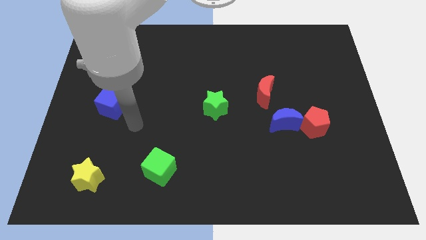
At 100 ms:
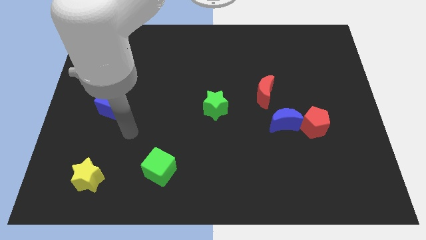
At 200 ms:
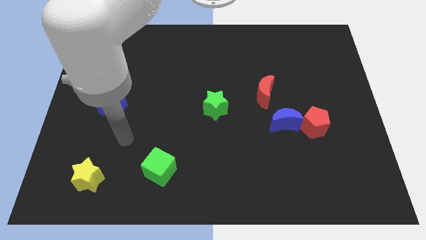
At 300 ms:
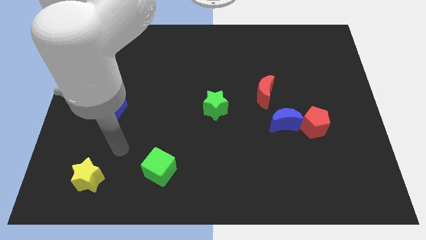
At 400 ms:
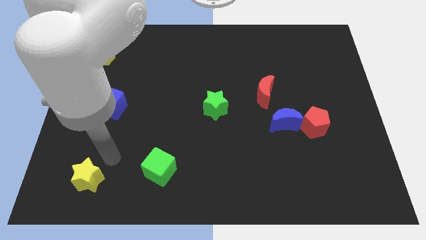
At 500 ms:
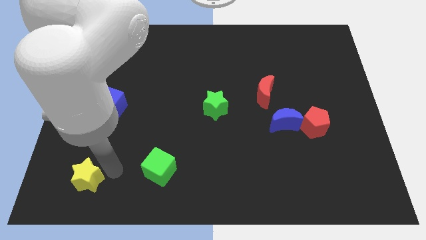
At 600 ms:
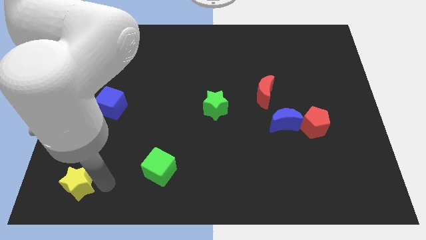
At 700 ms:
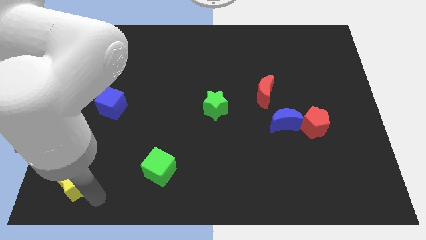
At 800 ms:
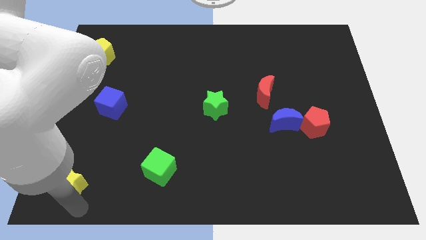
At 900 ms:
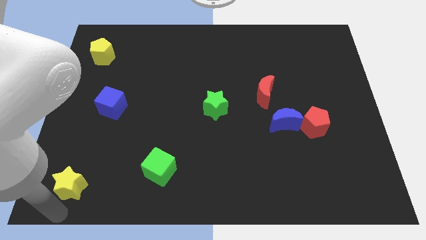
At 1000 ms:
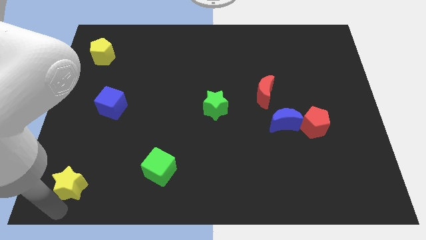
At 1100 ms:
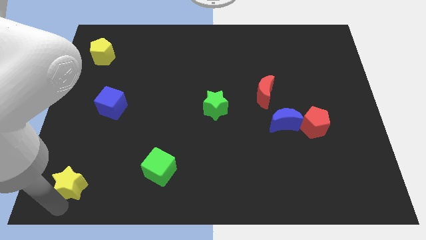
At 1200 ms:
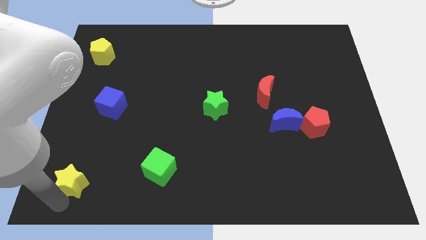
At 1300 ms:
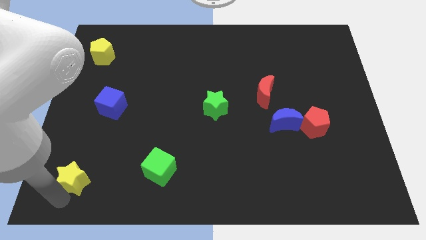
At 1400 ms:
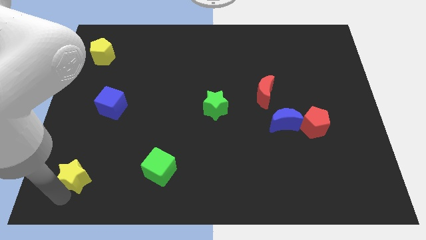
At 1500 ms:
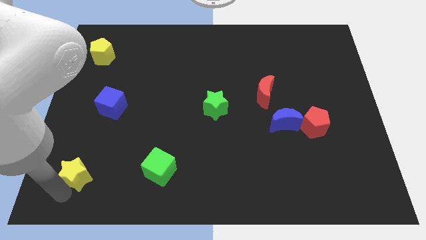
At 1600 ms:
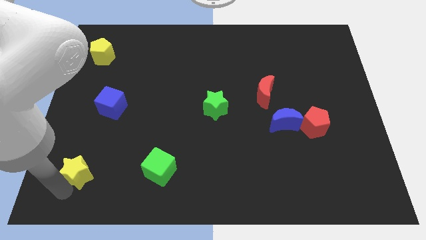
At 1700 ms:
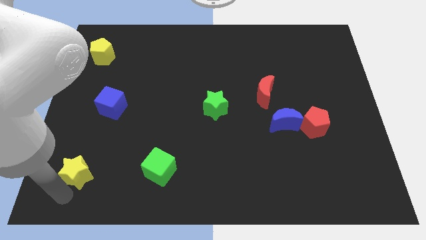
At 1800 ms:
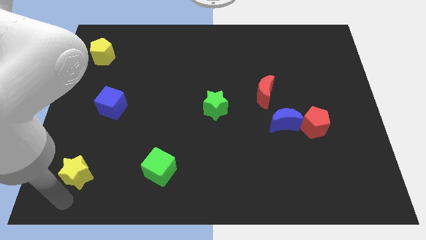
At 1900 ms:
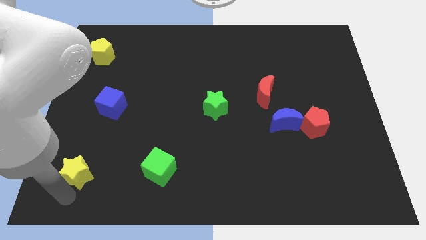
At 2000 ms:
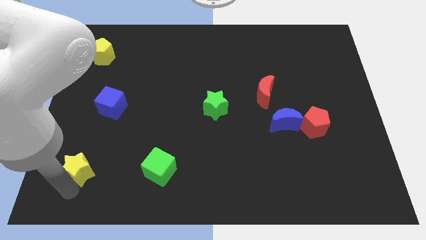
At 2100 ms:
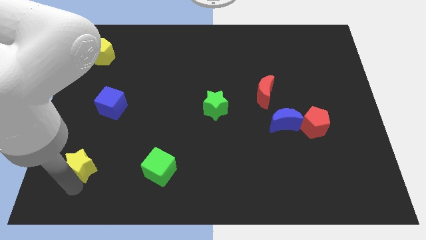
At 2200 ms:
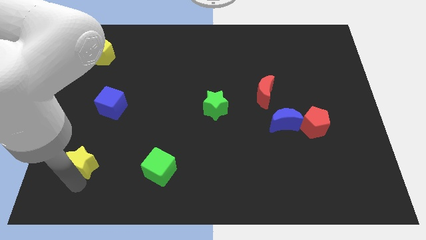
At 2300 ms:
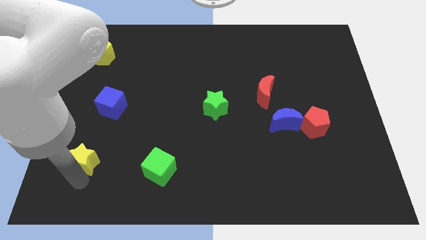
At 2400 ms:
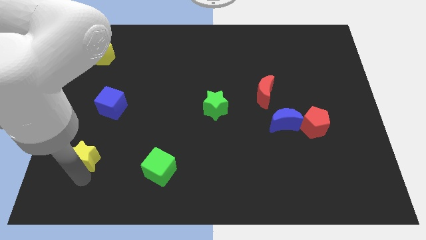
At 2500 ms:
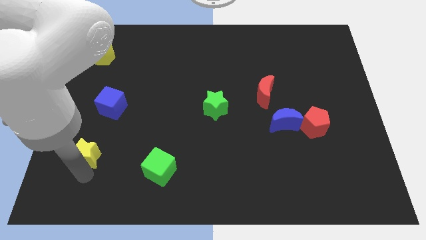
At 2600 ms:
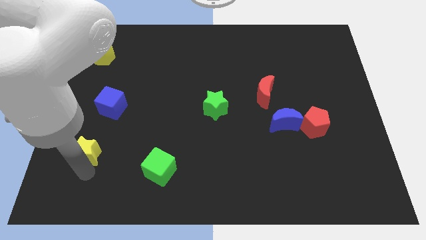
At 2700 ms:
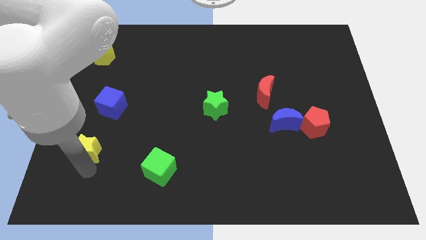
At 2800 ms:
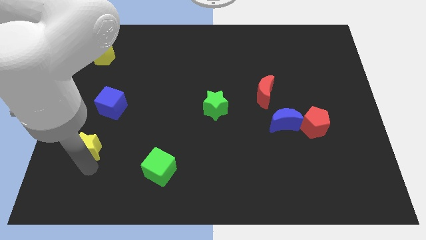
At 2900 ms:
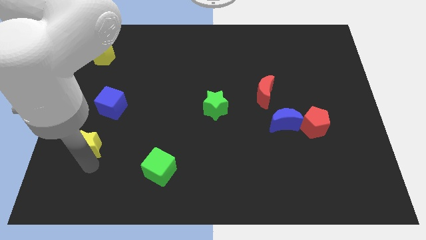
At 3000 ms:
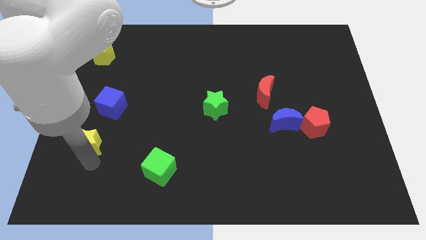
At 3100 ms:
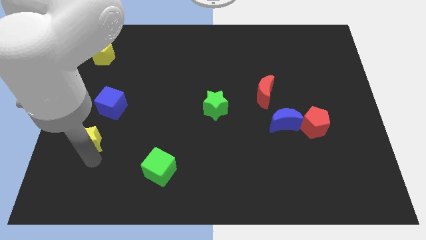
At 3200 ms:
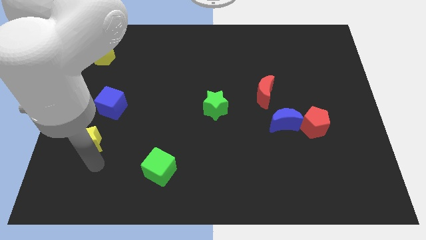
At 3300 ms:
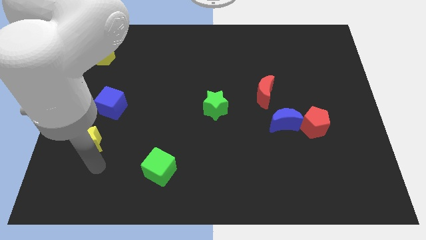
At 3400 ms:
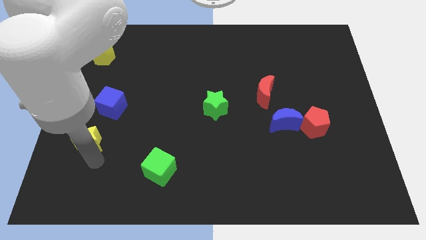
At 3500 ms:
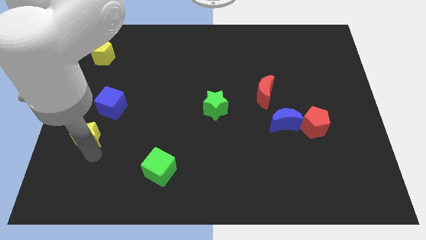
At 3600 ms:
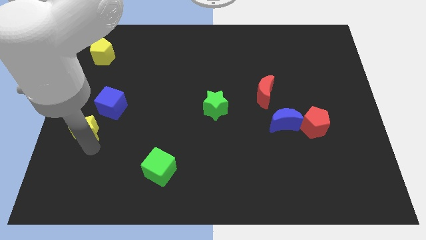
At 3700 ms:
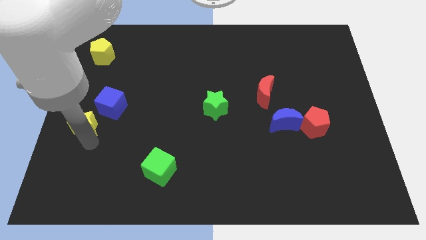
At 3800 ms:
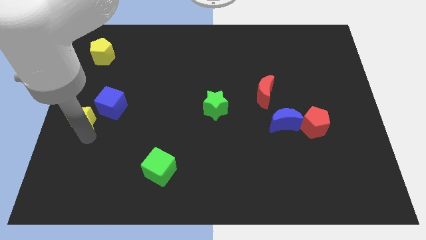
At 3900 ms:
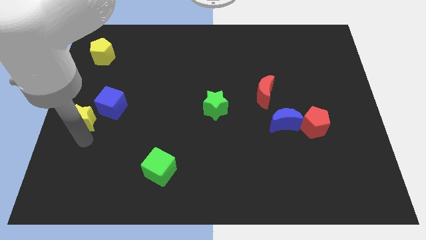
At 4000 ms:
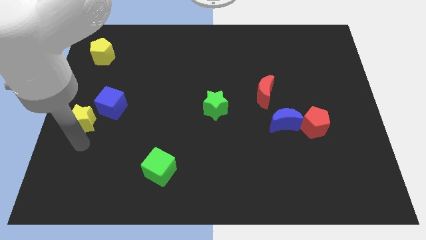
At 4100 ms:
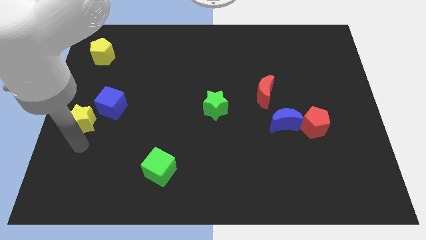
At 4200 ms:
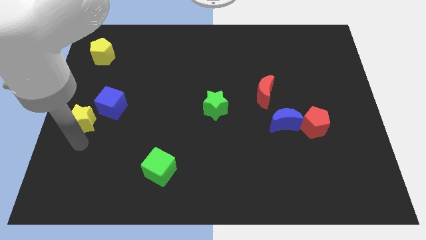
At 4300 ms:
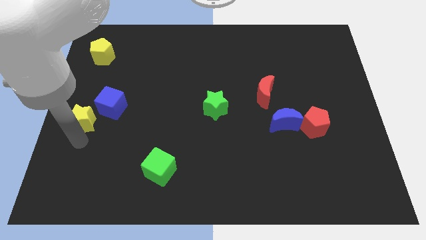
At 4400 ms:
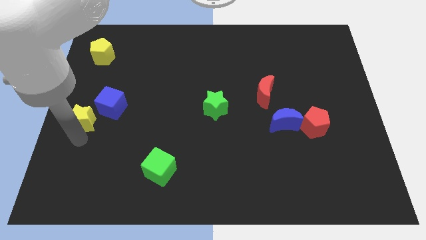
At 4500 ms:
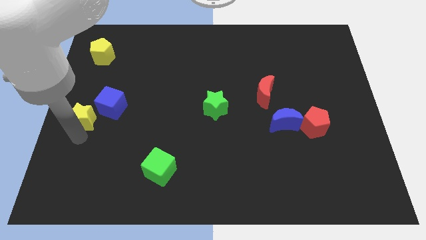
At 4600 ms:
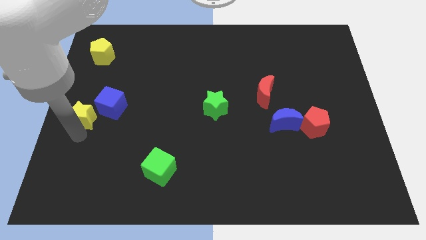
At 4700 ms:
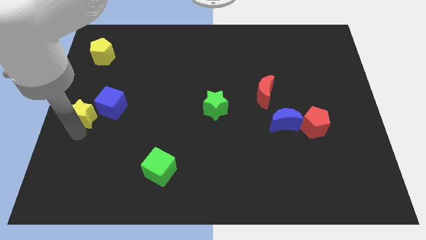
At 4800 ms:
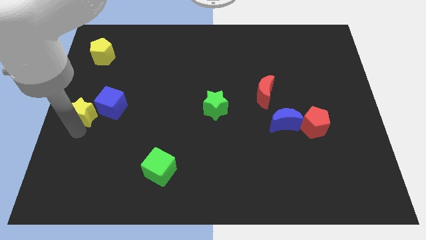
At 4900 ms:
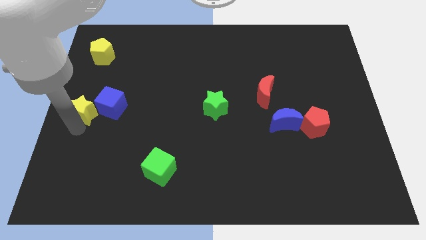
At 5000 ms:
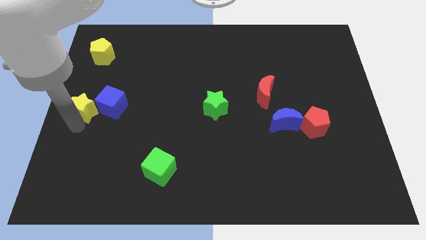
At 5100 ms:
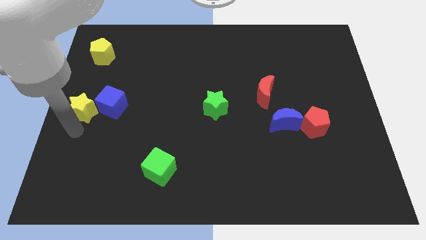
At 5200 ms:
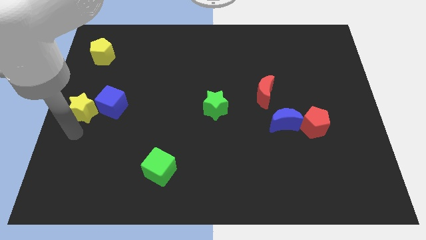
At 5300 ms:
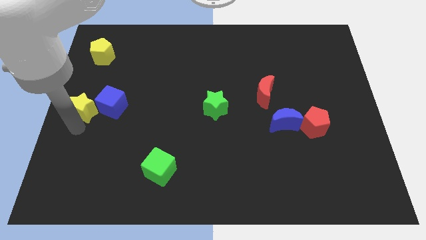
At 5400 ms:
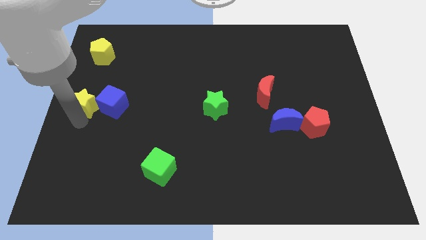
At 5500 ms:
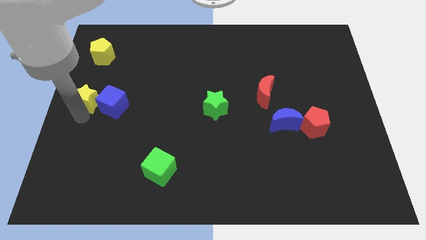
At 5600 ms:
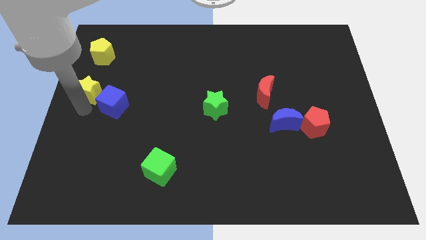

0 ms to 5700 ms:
slide the yellow star upwards

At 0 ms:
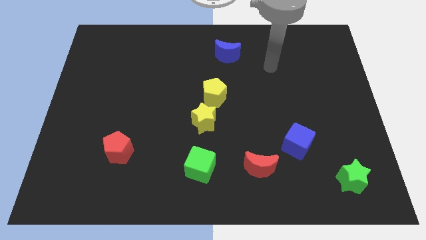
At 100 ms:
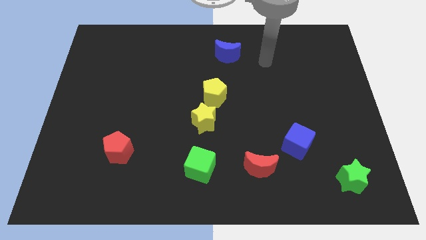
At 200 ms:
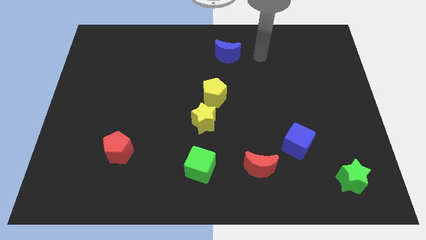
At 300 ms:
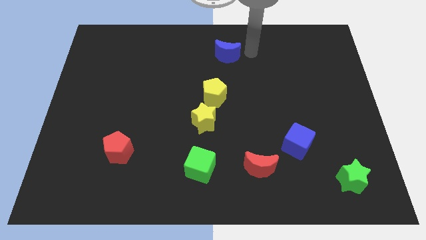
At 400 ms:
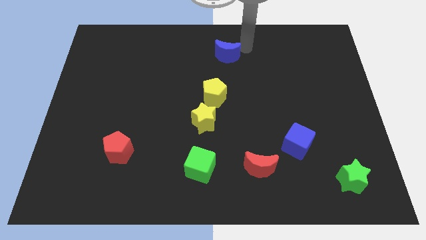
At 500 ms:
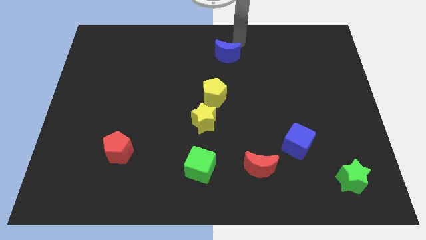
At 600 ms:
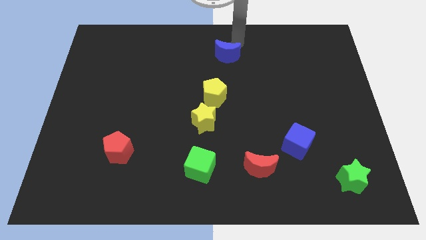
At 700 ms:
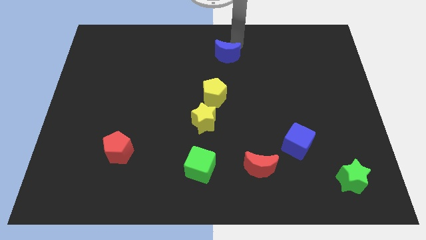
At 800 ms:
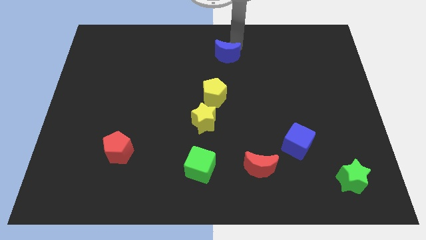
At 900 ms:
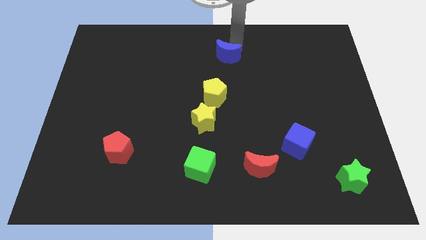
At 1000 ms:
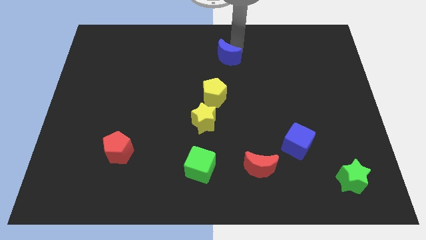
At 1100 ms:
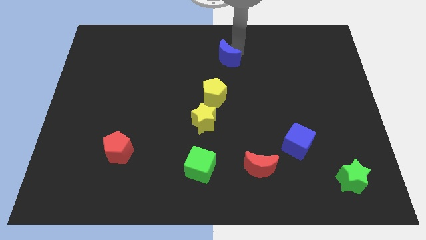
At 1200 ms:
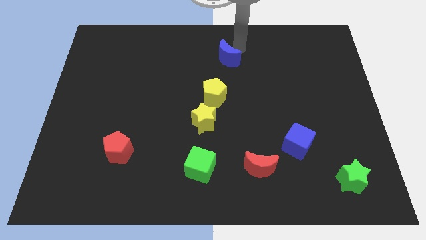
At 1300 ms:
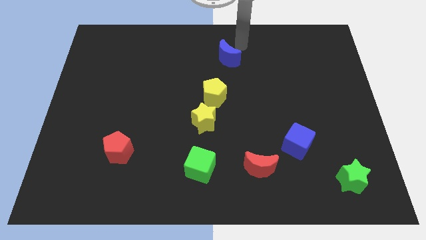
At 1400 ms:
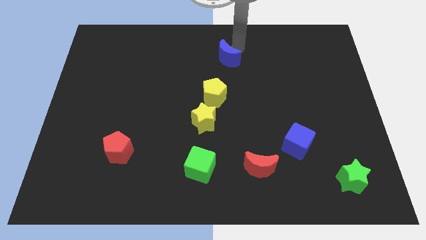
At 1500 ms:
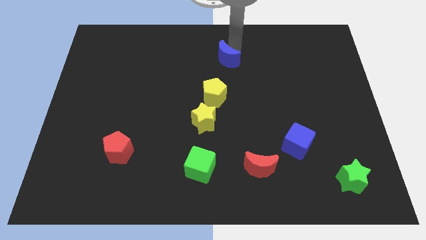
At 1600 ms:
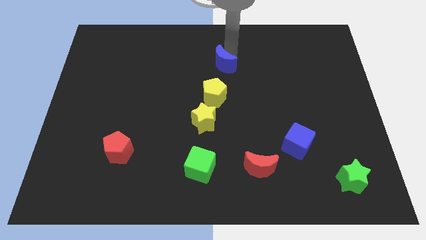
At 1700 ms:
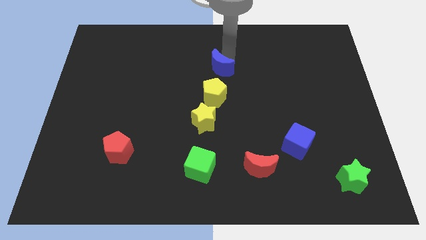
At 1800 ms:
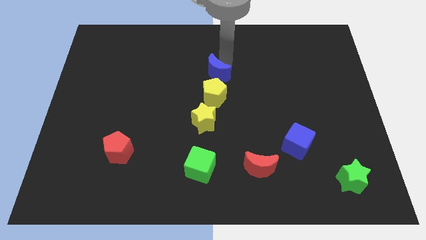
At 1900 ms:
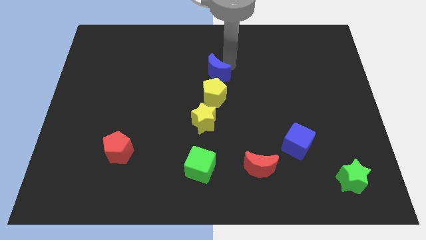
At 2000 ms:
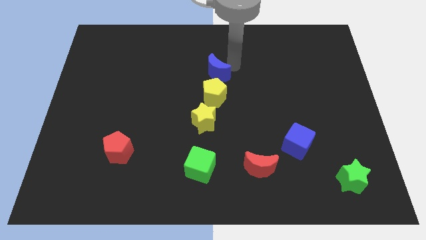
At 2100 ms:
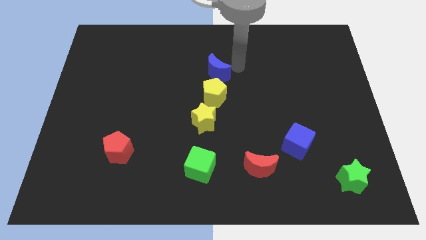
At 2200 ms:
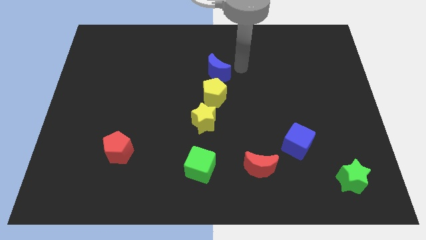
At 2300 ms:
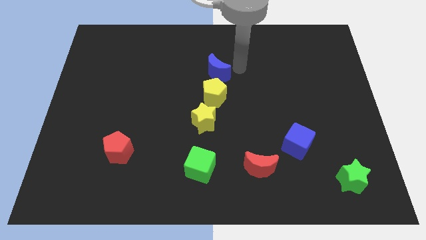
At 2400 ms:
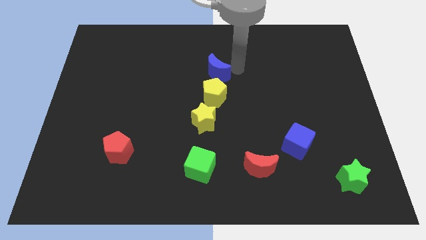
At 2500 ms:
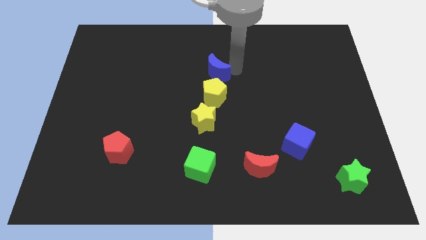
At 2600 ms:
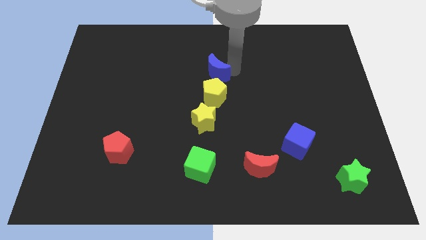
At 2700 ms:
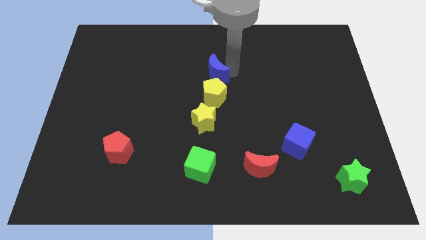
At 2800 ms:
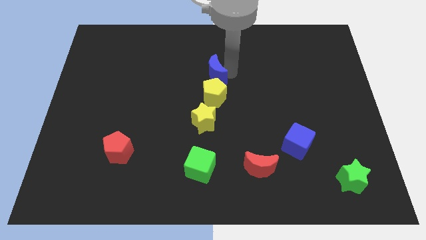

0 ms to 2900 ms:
slide the blue moon diagonally downwards and left somewhat
